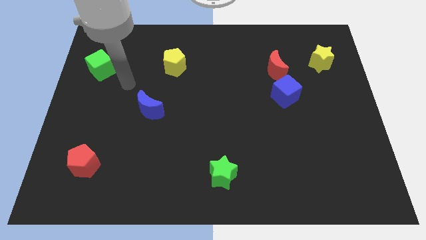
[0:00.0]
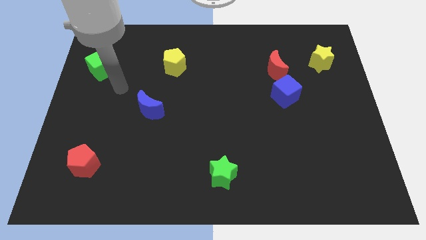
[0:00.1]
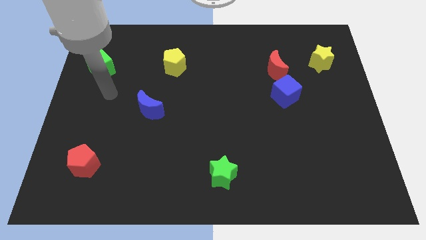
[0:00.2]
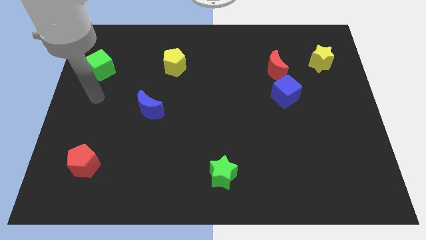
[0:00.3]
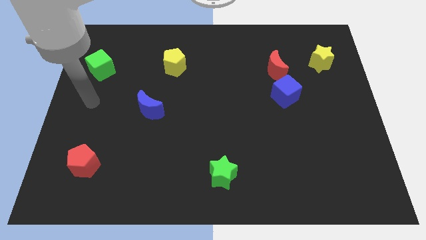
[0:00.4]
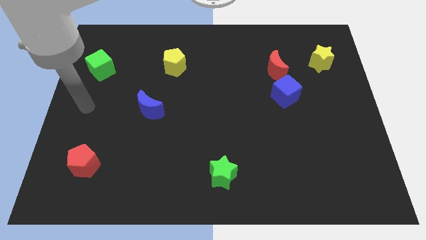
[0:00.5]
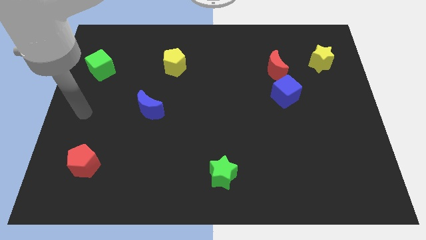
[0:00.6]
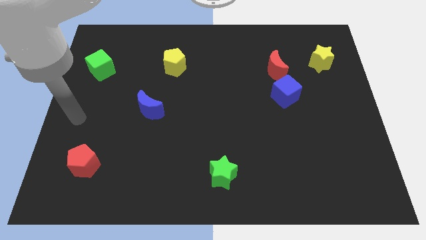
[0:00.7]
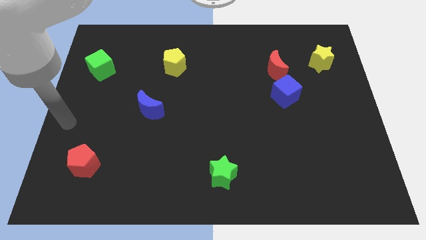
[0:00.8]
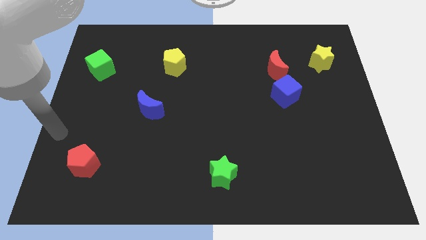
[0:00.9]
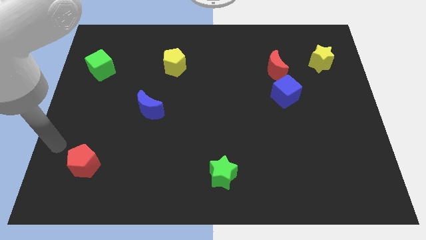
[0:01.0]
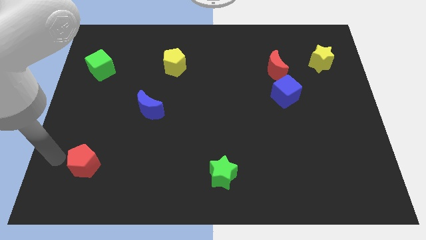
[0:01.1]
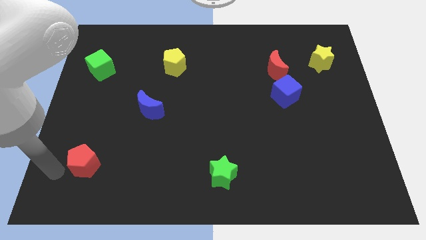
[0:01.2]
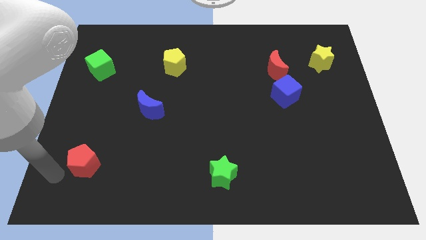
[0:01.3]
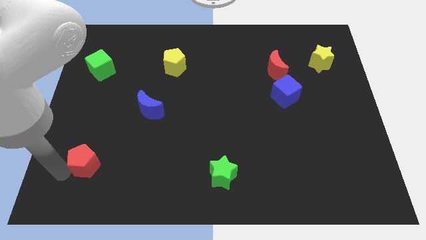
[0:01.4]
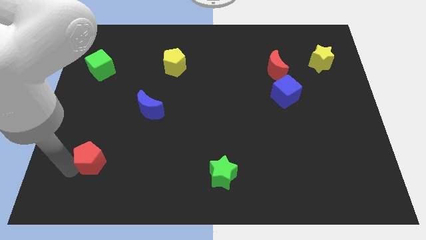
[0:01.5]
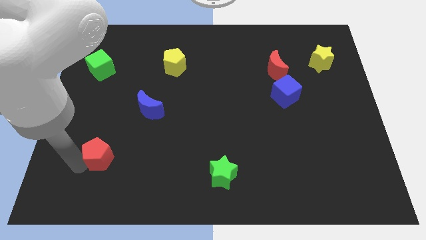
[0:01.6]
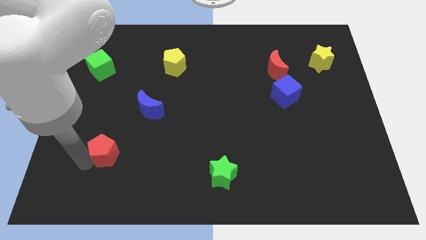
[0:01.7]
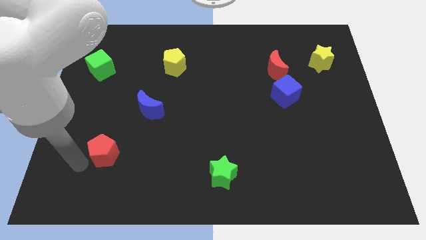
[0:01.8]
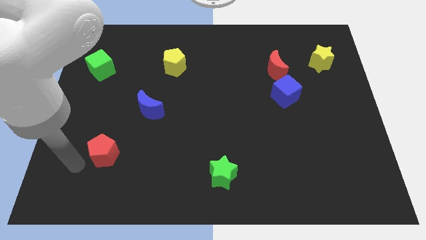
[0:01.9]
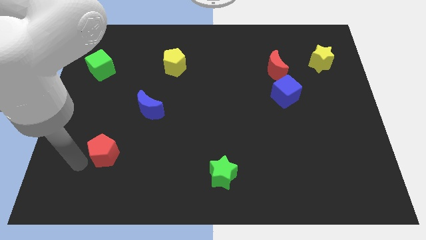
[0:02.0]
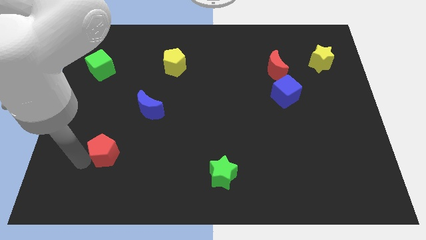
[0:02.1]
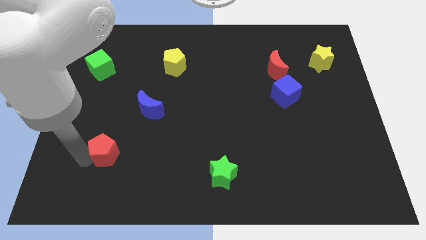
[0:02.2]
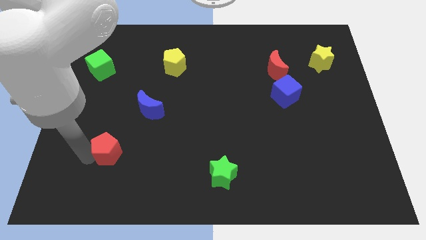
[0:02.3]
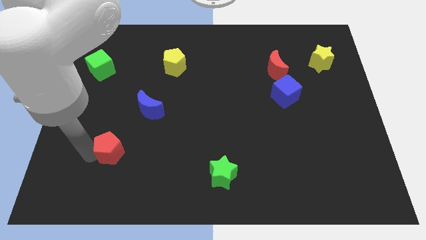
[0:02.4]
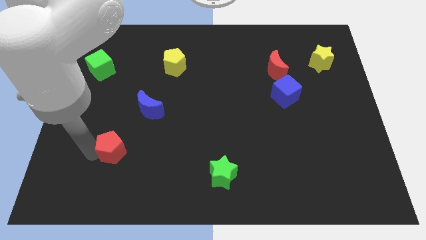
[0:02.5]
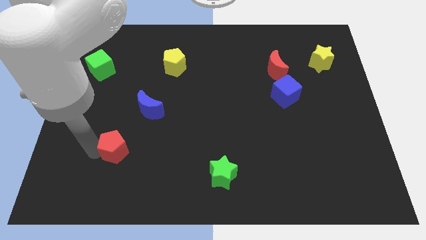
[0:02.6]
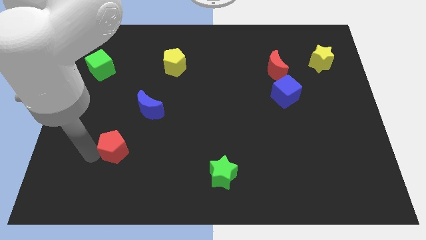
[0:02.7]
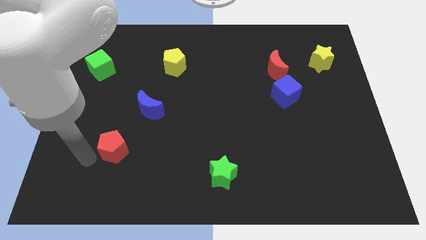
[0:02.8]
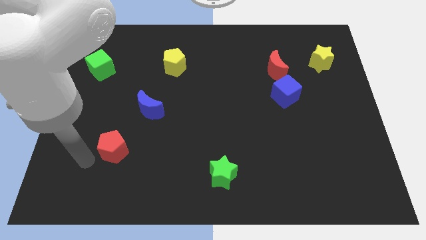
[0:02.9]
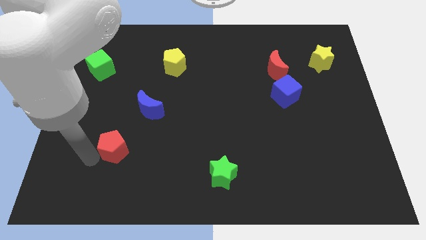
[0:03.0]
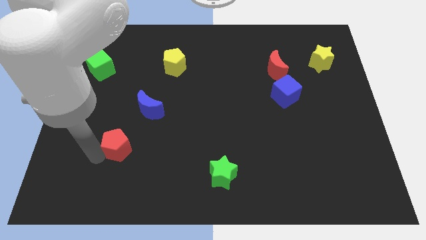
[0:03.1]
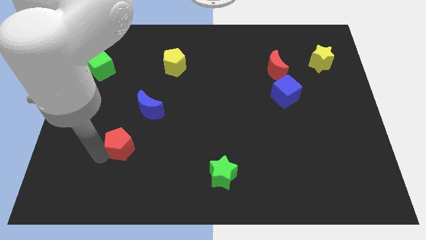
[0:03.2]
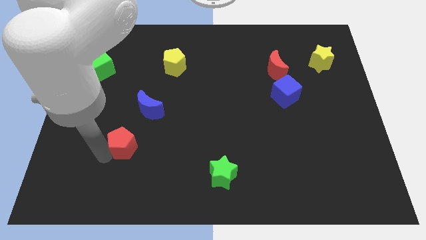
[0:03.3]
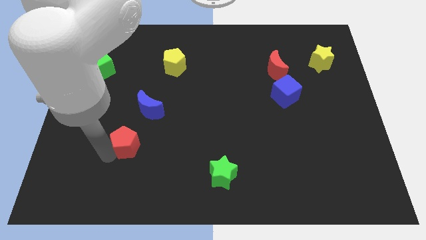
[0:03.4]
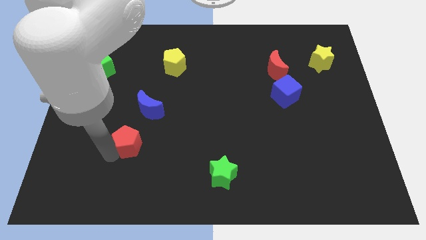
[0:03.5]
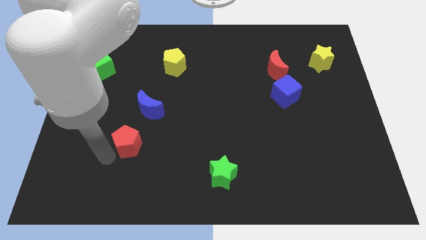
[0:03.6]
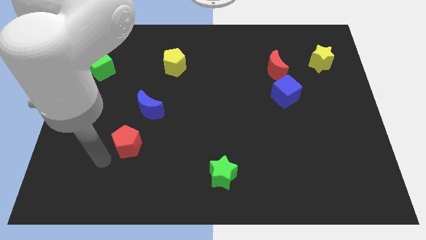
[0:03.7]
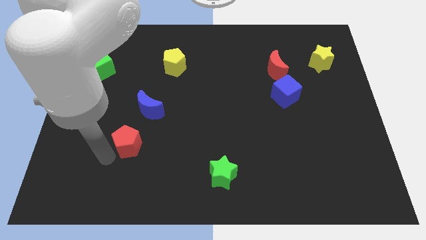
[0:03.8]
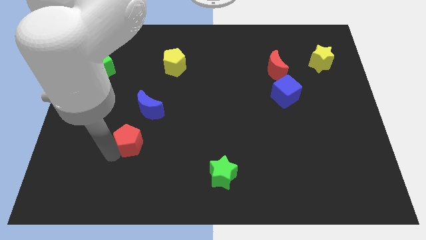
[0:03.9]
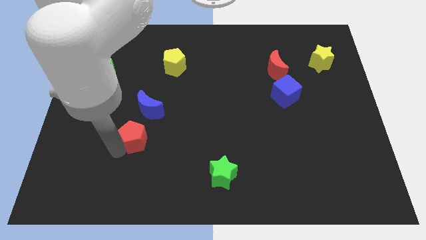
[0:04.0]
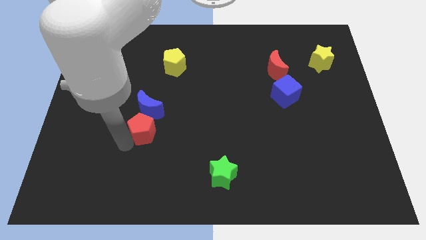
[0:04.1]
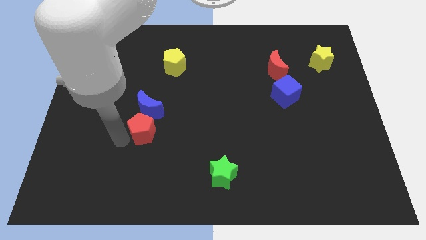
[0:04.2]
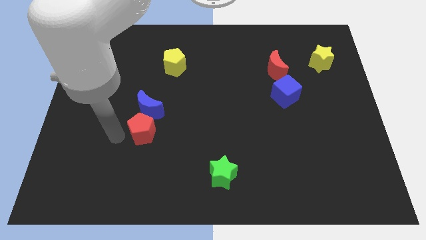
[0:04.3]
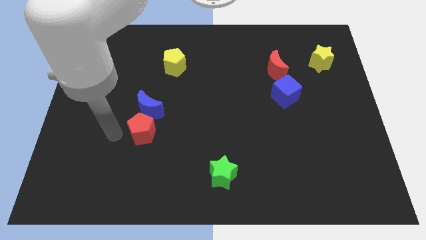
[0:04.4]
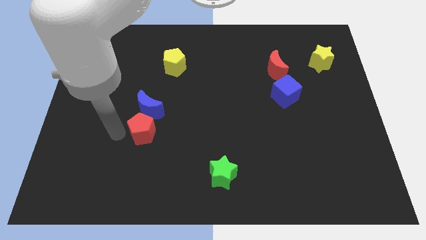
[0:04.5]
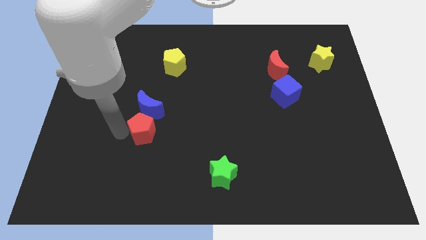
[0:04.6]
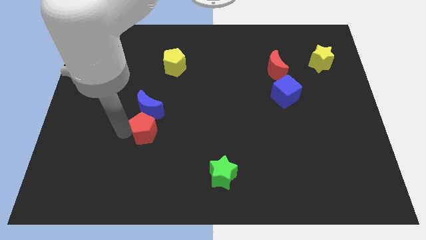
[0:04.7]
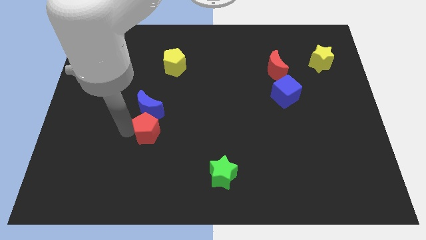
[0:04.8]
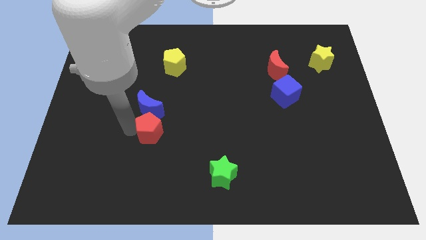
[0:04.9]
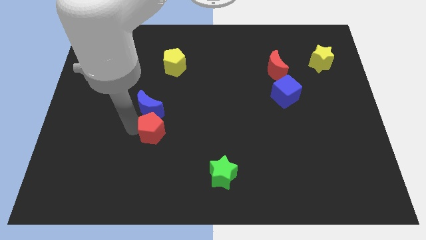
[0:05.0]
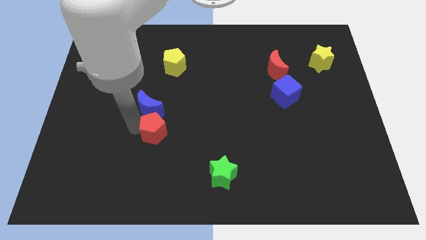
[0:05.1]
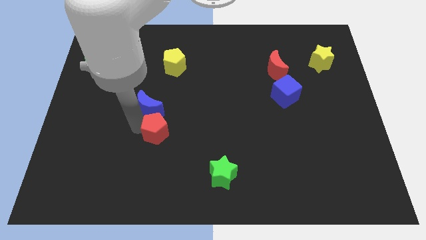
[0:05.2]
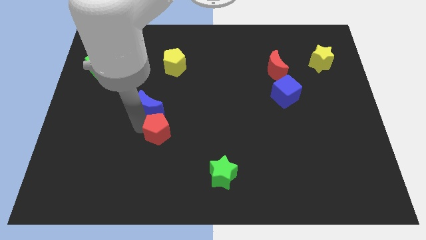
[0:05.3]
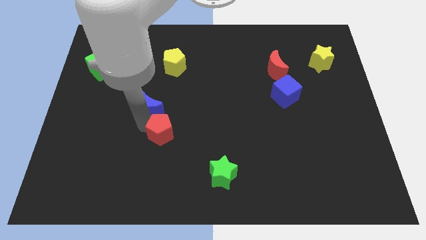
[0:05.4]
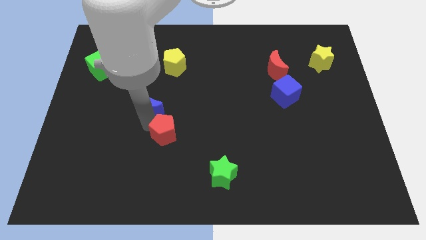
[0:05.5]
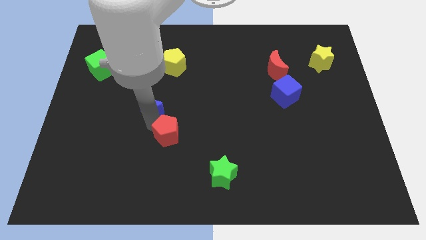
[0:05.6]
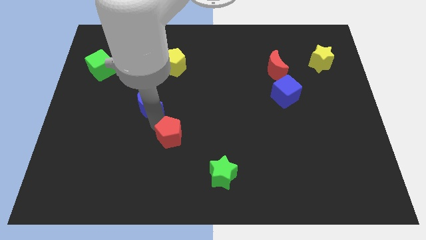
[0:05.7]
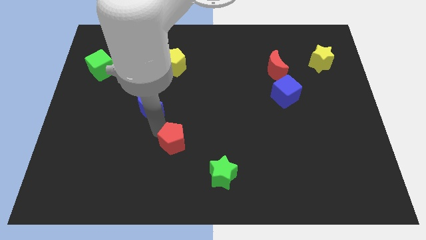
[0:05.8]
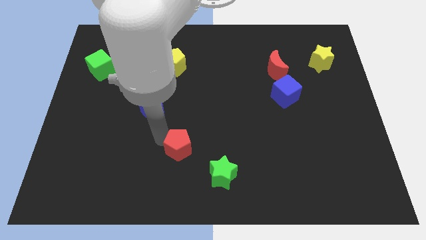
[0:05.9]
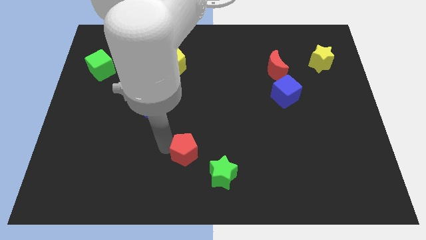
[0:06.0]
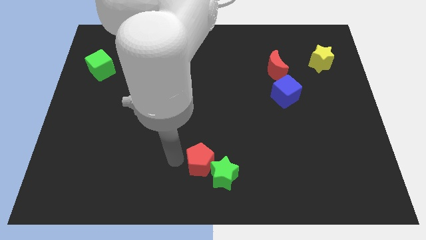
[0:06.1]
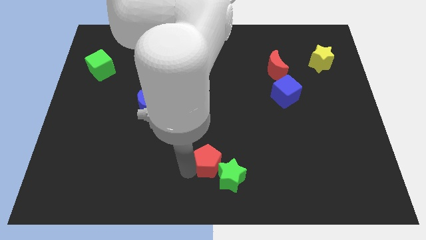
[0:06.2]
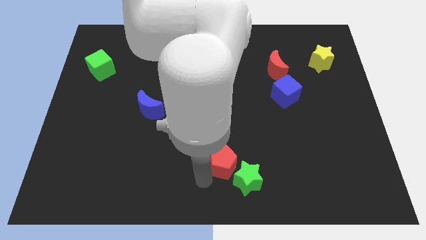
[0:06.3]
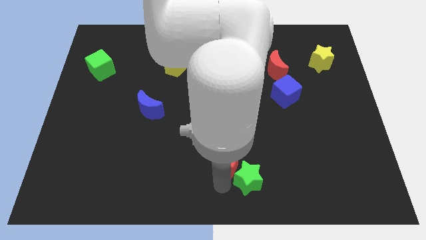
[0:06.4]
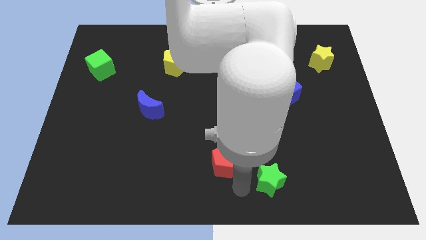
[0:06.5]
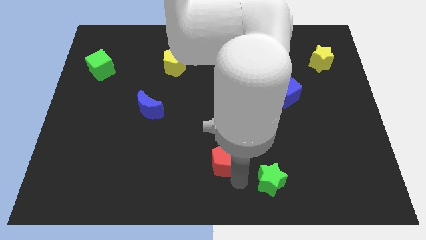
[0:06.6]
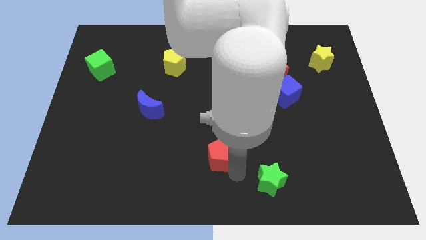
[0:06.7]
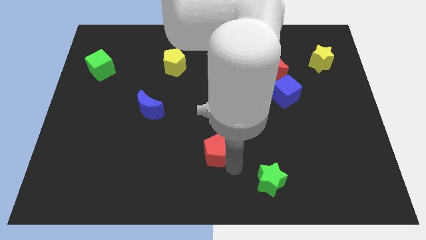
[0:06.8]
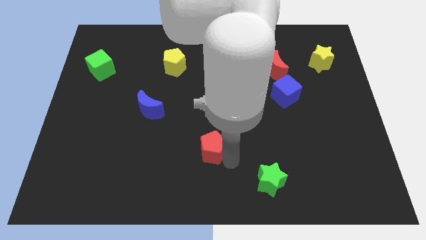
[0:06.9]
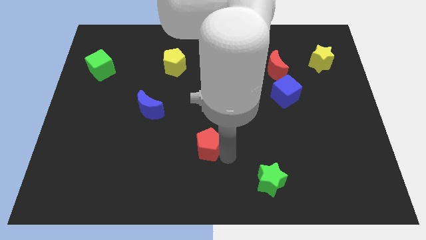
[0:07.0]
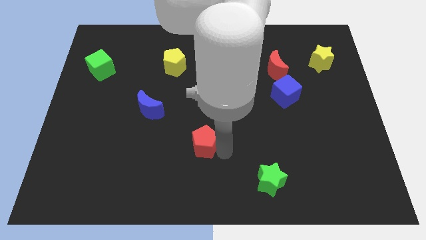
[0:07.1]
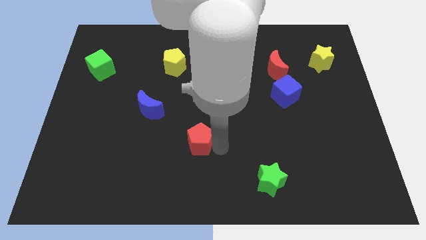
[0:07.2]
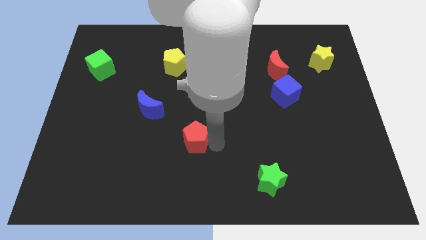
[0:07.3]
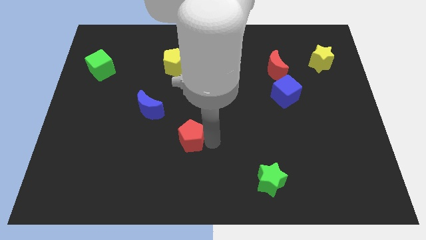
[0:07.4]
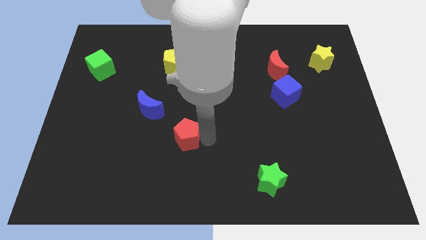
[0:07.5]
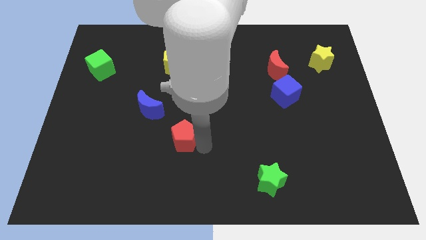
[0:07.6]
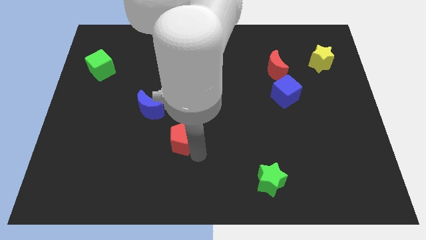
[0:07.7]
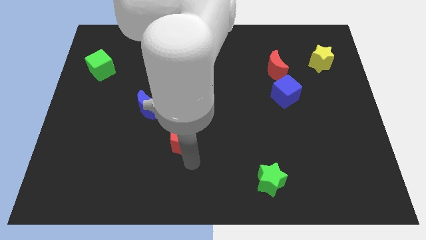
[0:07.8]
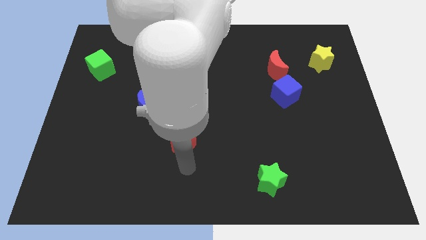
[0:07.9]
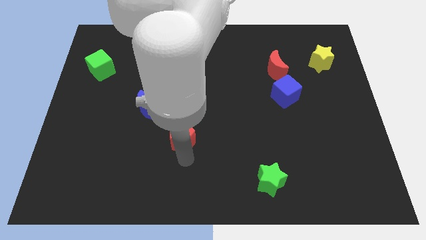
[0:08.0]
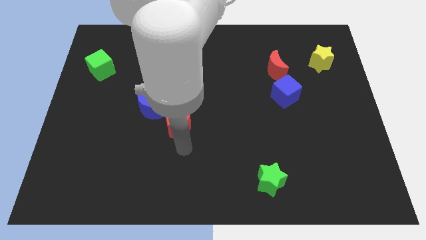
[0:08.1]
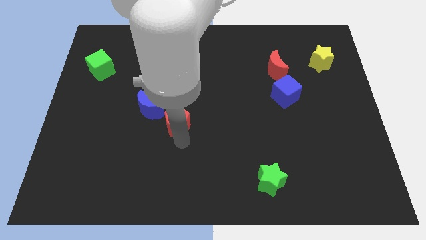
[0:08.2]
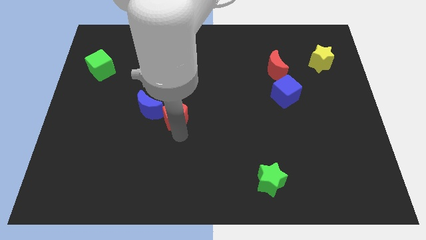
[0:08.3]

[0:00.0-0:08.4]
slide the red pentagon up and then to the right
